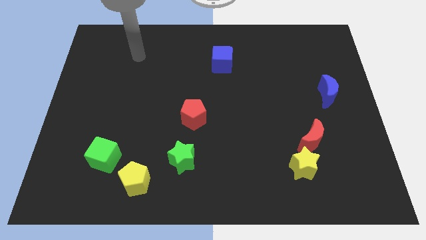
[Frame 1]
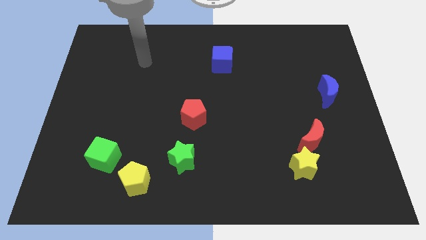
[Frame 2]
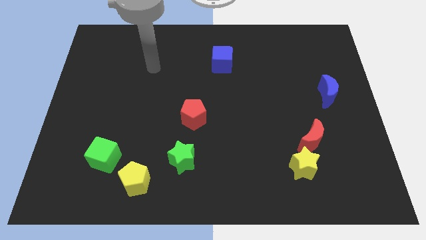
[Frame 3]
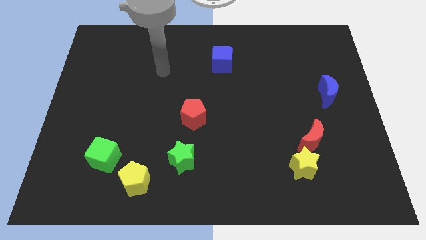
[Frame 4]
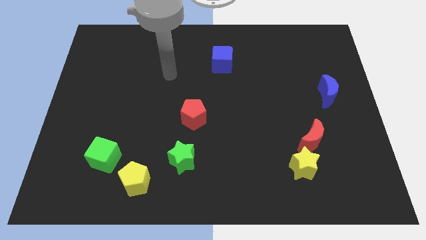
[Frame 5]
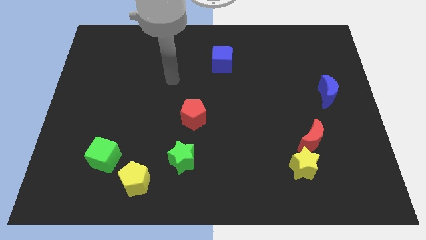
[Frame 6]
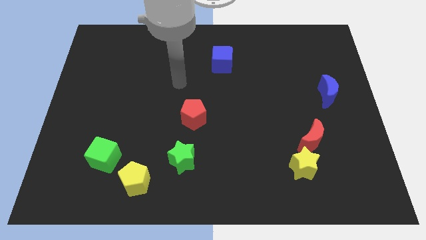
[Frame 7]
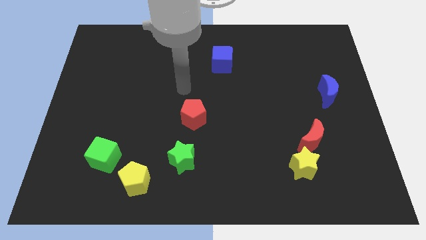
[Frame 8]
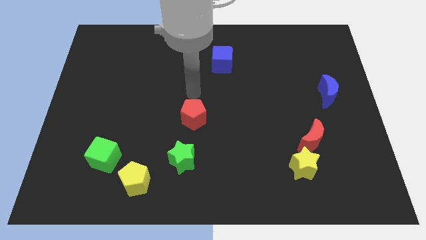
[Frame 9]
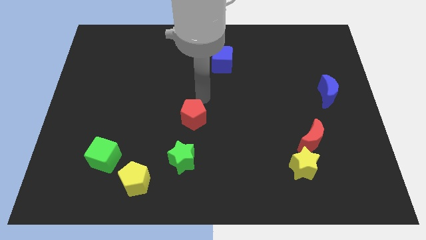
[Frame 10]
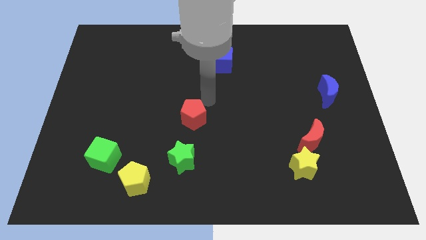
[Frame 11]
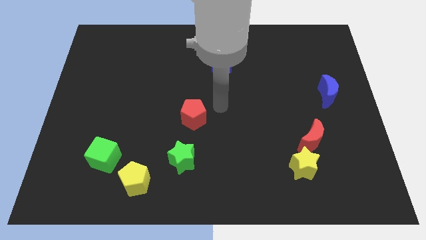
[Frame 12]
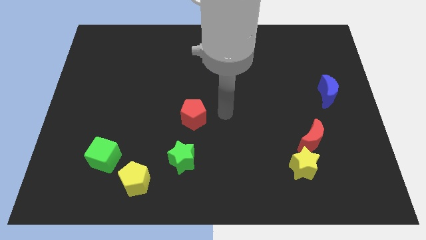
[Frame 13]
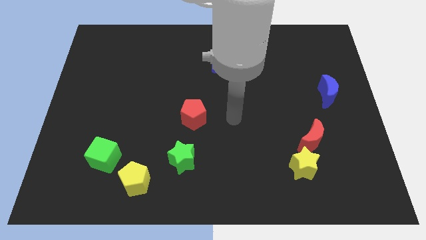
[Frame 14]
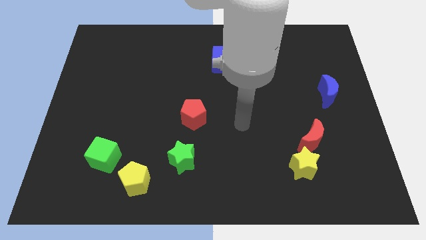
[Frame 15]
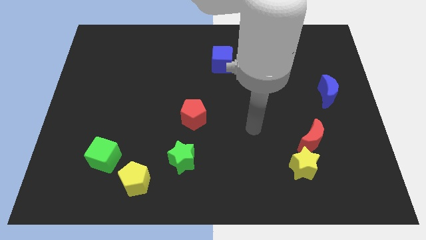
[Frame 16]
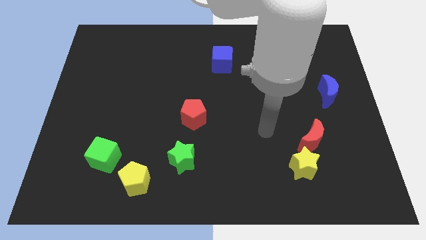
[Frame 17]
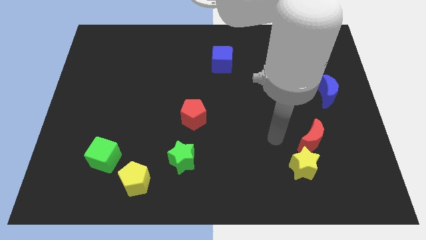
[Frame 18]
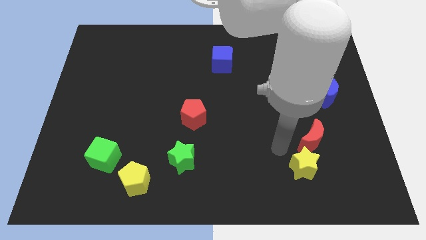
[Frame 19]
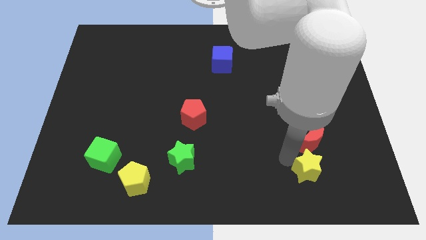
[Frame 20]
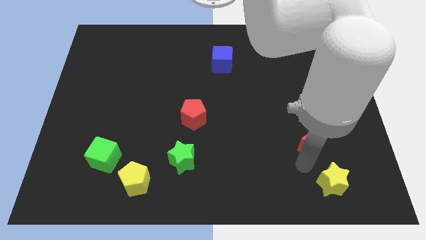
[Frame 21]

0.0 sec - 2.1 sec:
separate the red moon from the yellow star

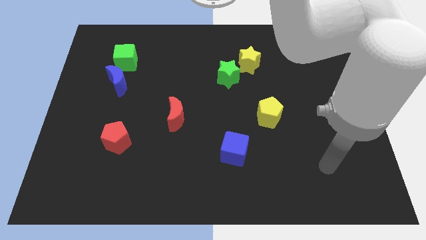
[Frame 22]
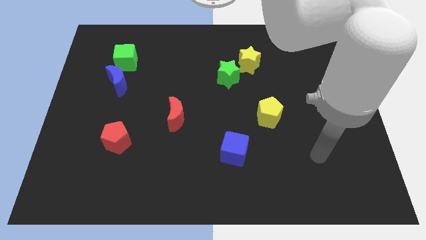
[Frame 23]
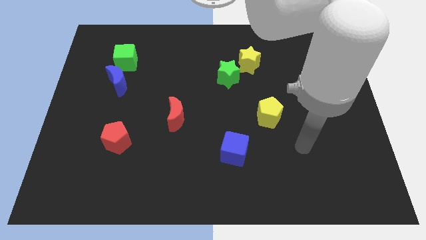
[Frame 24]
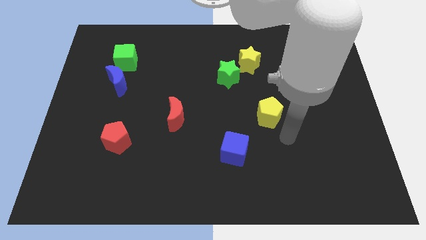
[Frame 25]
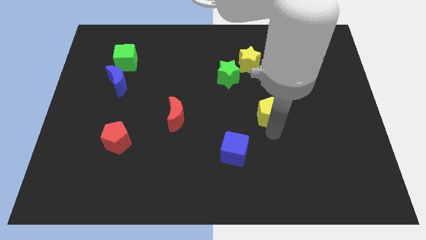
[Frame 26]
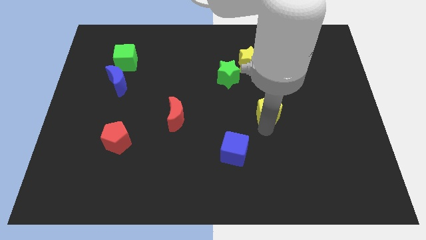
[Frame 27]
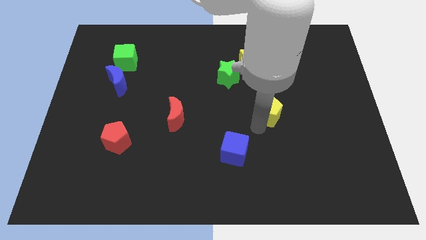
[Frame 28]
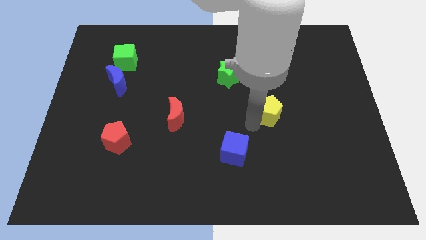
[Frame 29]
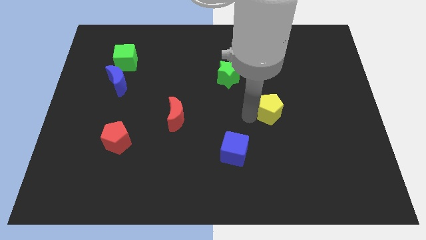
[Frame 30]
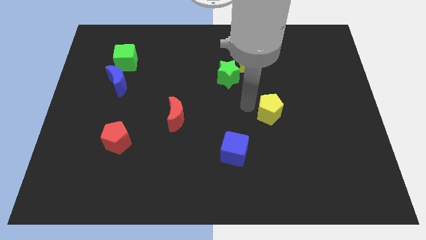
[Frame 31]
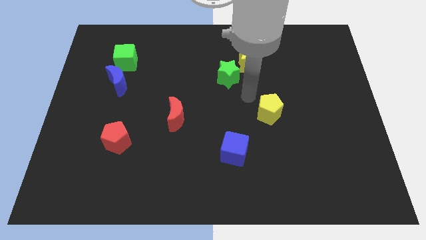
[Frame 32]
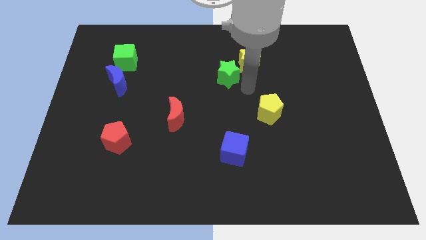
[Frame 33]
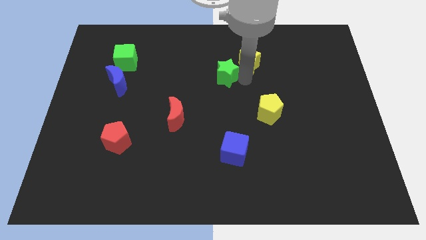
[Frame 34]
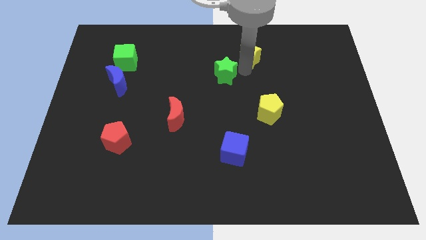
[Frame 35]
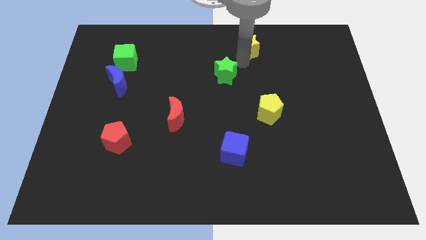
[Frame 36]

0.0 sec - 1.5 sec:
move the green star away from the yellow star

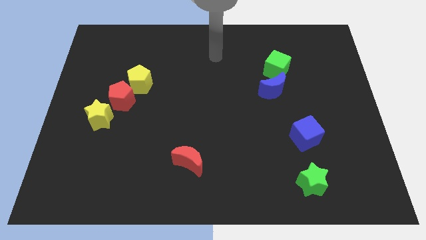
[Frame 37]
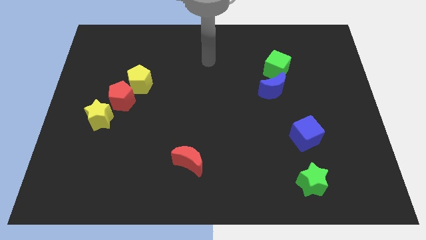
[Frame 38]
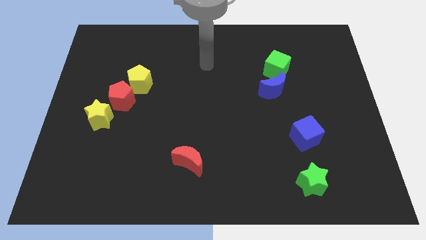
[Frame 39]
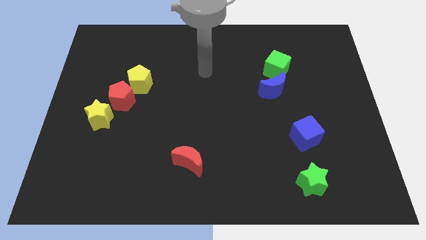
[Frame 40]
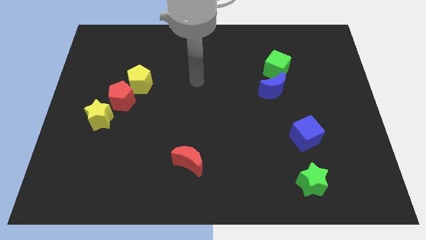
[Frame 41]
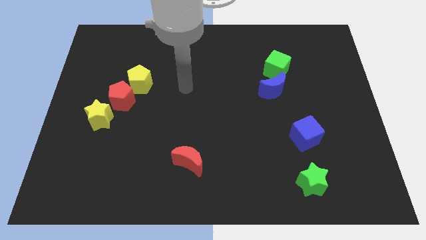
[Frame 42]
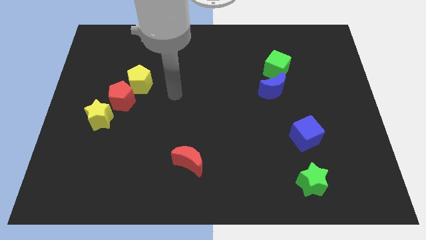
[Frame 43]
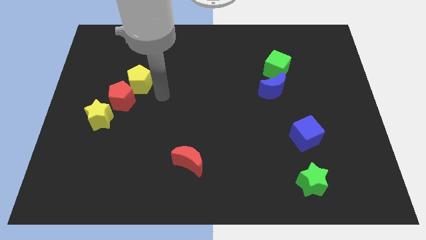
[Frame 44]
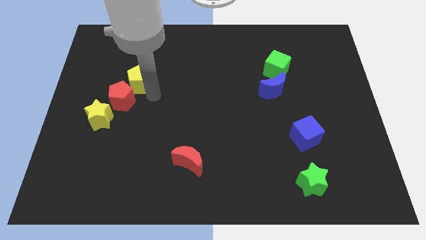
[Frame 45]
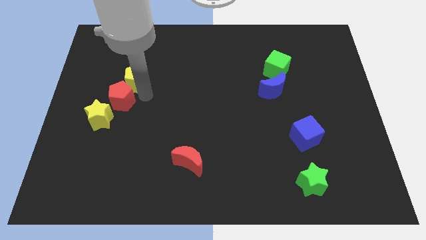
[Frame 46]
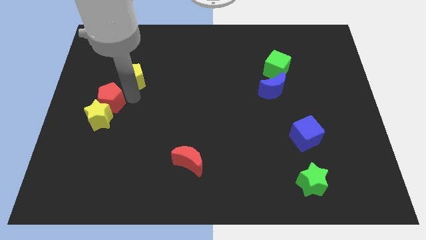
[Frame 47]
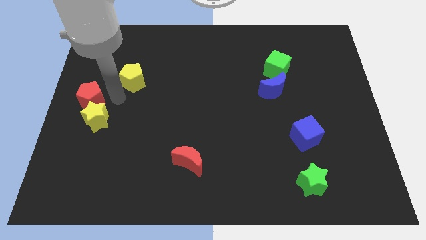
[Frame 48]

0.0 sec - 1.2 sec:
pull the yellow pentagon apart from the red pentagon

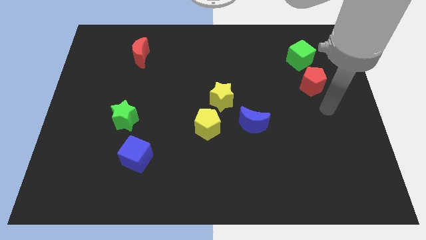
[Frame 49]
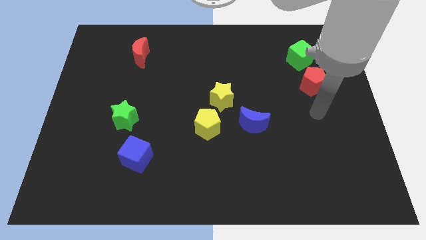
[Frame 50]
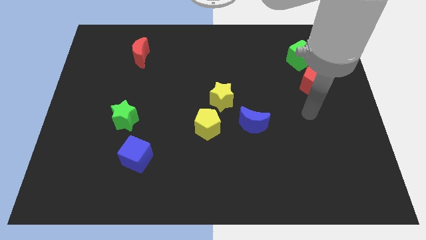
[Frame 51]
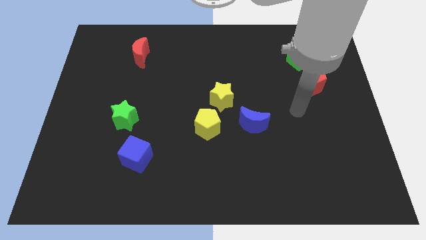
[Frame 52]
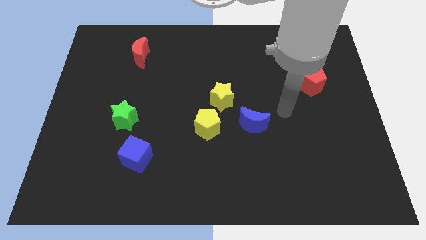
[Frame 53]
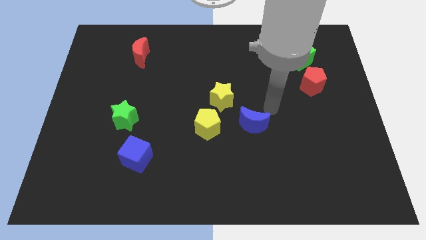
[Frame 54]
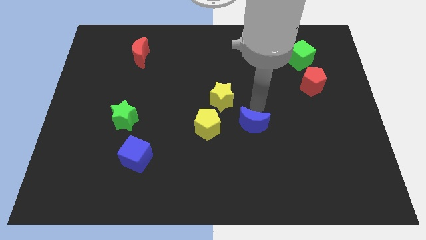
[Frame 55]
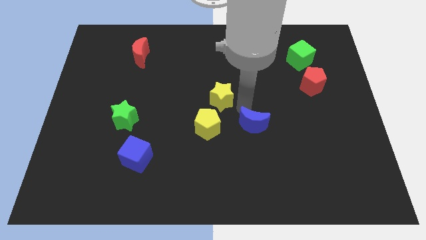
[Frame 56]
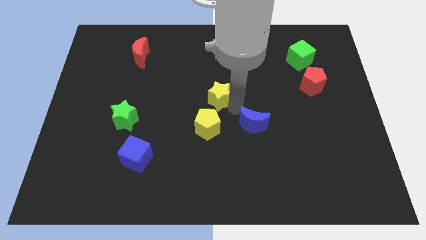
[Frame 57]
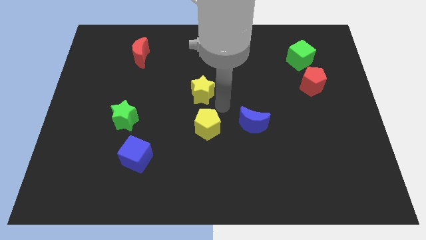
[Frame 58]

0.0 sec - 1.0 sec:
separate the yellow pentagon from the yellow star

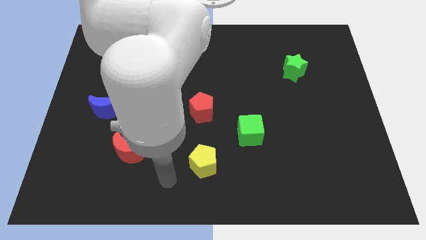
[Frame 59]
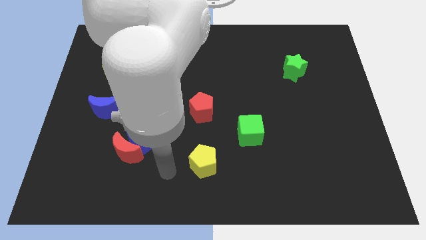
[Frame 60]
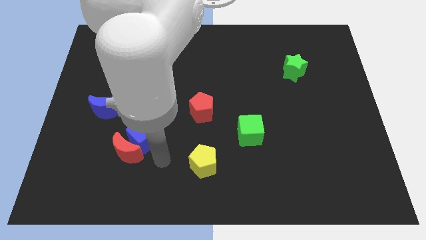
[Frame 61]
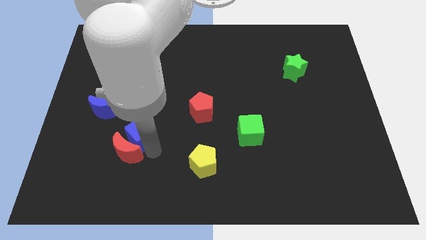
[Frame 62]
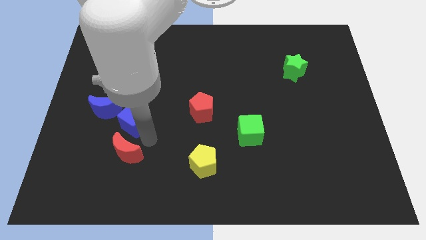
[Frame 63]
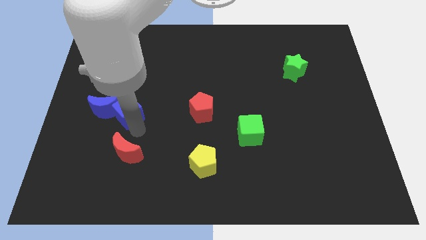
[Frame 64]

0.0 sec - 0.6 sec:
move the red moon away from the blue cube

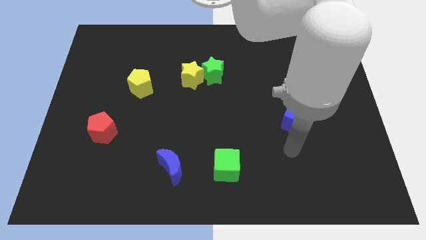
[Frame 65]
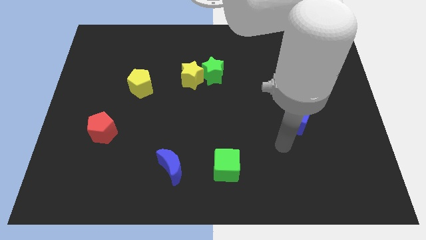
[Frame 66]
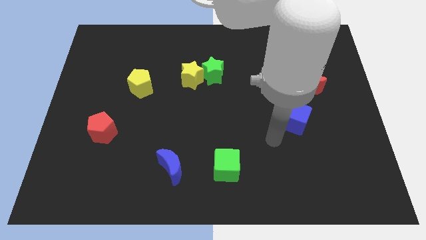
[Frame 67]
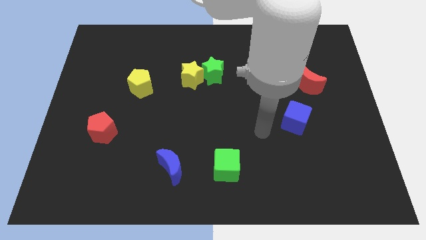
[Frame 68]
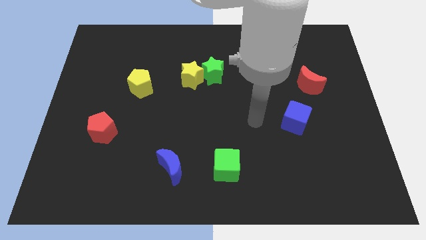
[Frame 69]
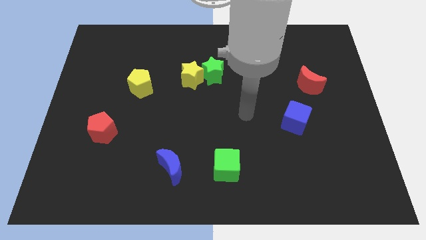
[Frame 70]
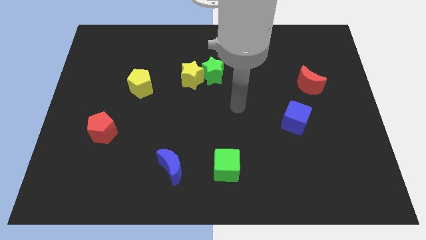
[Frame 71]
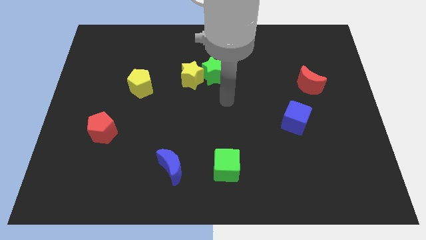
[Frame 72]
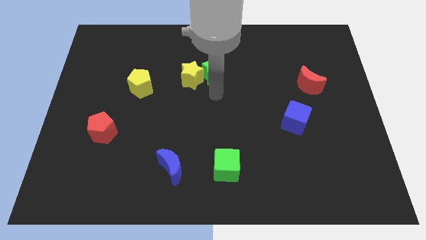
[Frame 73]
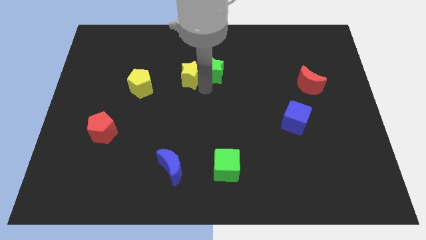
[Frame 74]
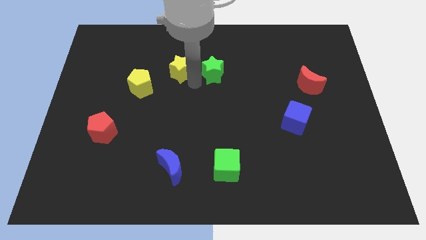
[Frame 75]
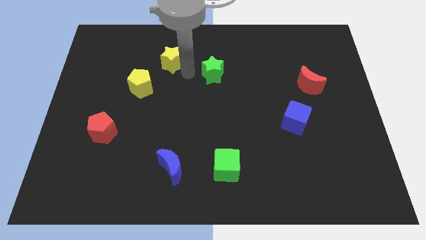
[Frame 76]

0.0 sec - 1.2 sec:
pull the green star apart from the yellow star

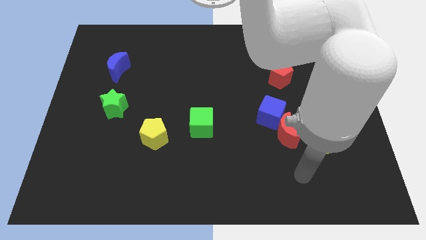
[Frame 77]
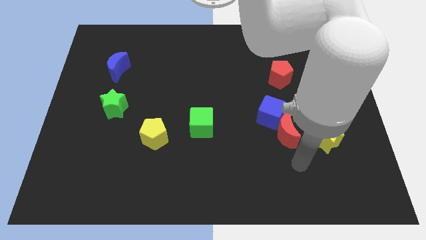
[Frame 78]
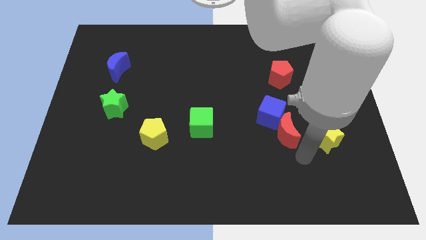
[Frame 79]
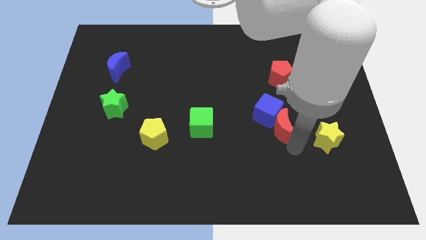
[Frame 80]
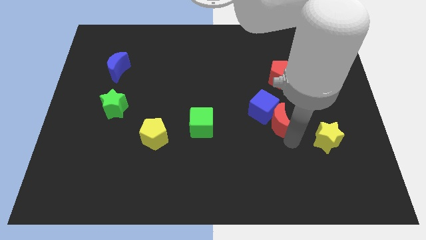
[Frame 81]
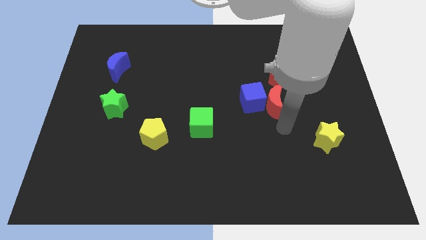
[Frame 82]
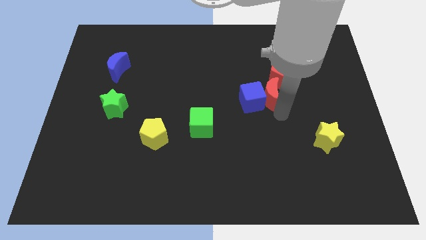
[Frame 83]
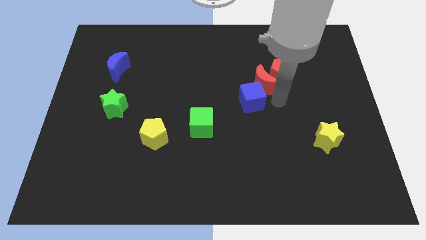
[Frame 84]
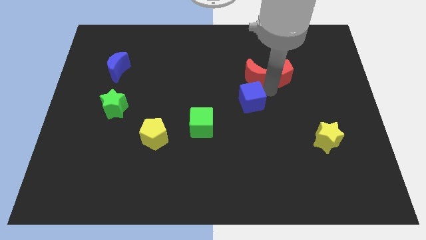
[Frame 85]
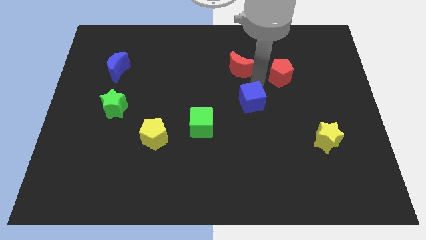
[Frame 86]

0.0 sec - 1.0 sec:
pull the blue cube apart from the red moon

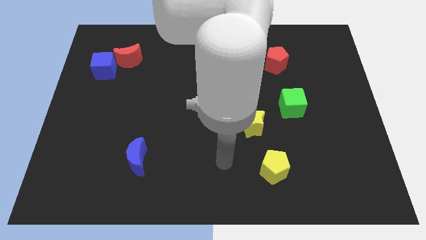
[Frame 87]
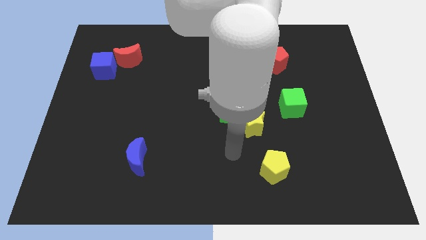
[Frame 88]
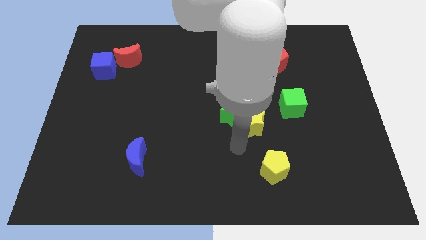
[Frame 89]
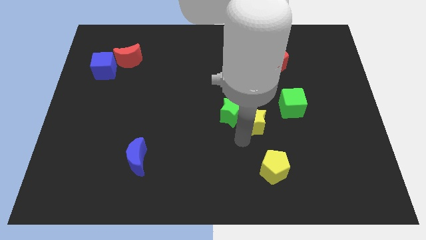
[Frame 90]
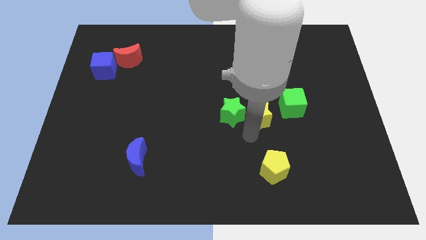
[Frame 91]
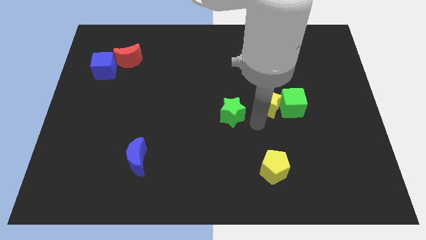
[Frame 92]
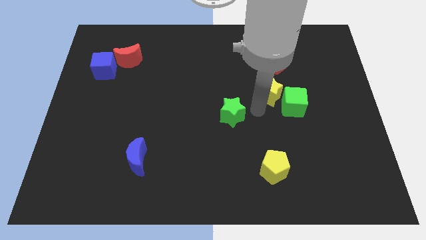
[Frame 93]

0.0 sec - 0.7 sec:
separate the green star from the yellow star
